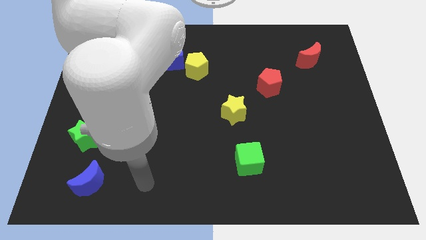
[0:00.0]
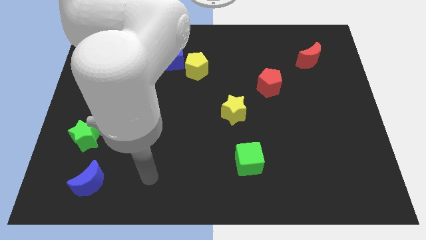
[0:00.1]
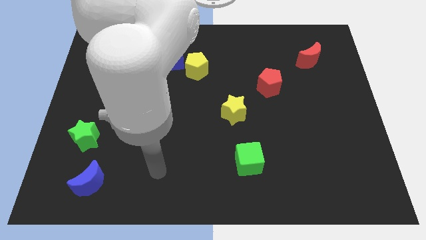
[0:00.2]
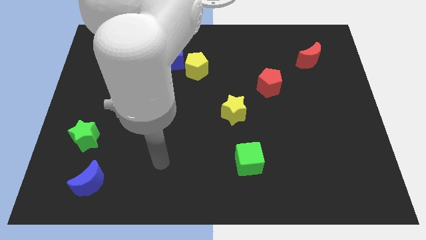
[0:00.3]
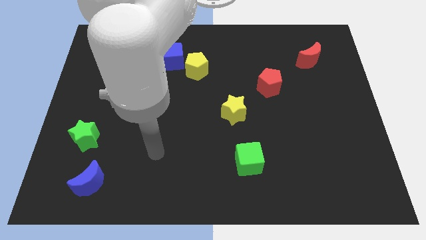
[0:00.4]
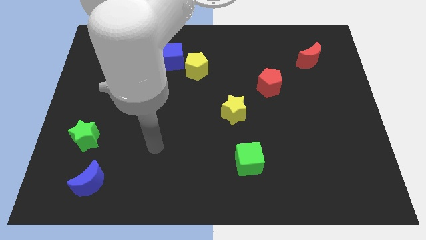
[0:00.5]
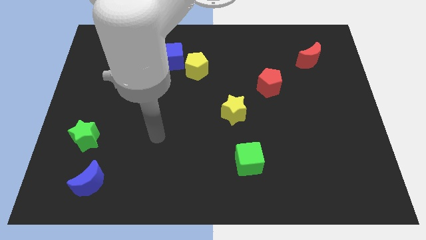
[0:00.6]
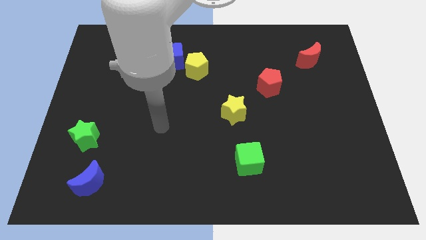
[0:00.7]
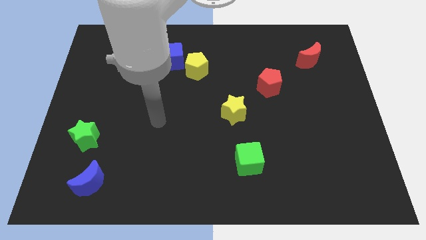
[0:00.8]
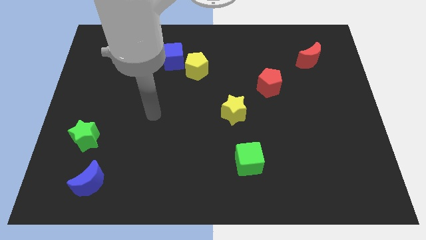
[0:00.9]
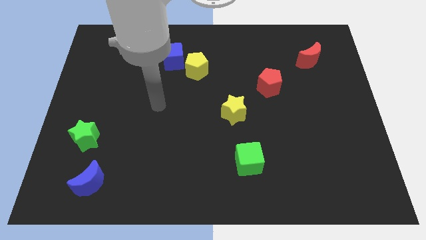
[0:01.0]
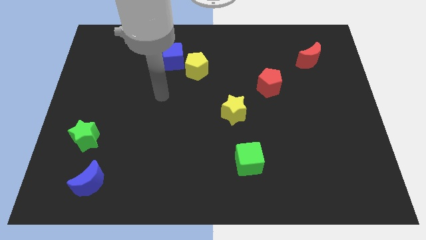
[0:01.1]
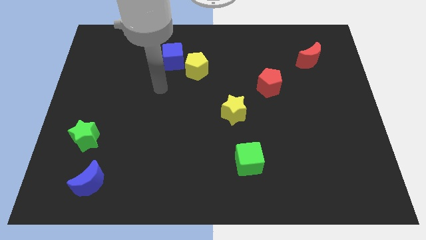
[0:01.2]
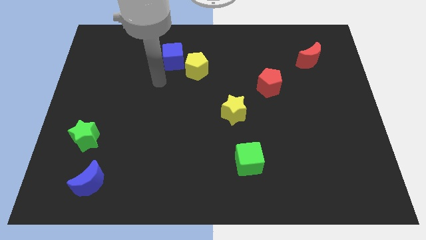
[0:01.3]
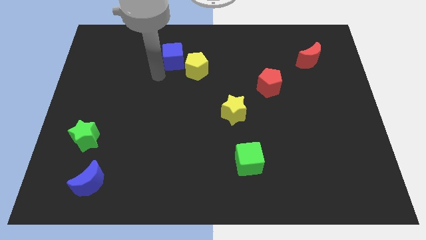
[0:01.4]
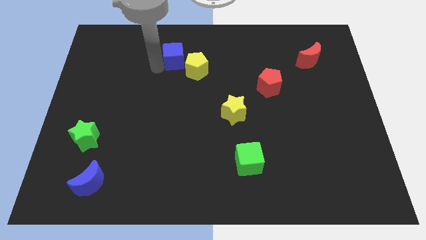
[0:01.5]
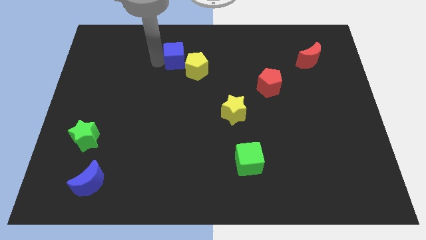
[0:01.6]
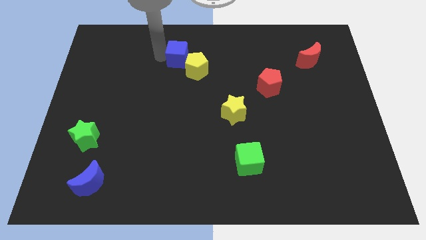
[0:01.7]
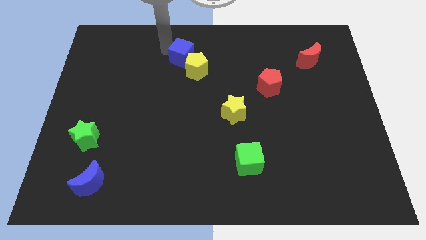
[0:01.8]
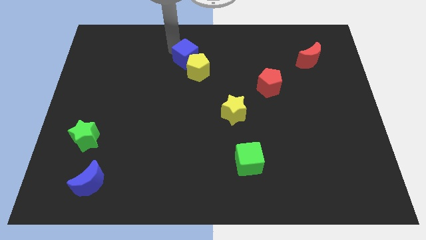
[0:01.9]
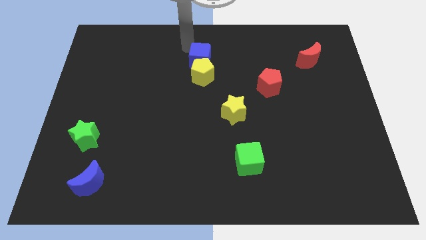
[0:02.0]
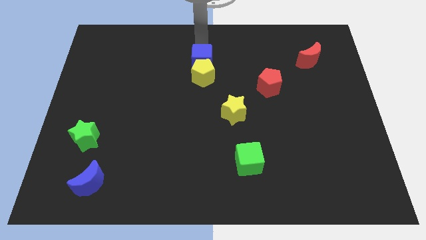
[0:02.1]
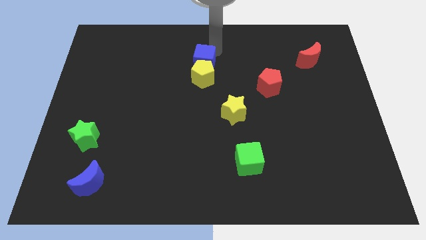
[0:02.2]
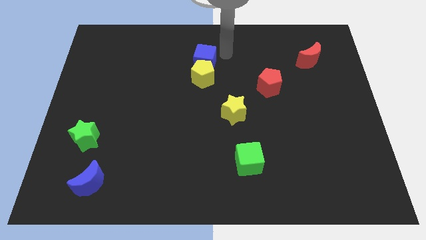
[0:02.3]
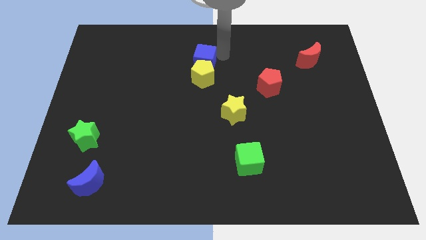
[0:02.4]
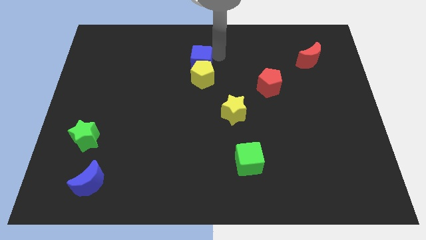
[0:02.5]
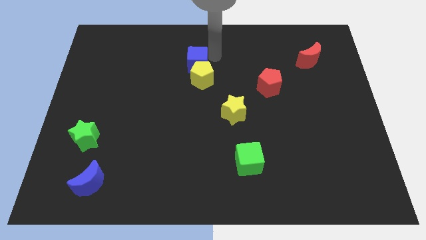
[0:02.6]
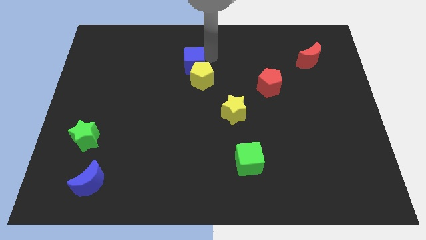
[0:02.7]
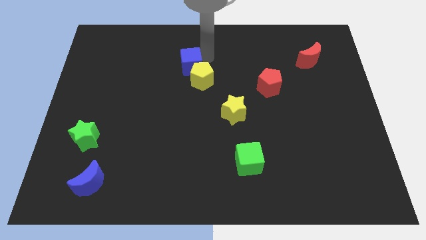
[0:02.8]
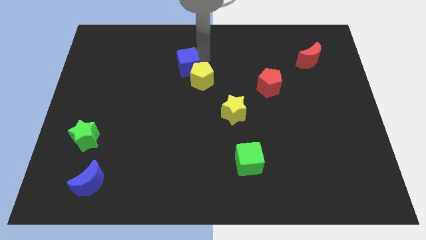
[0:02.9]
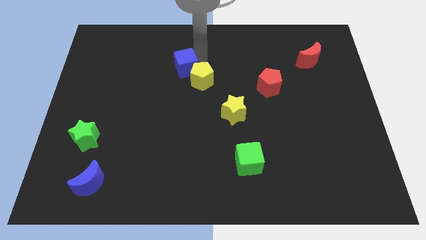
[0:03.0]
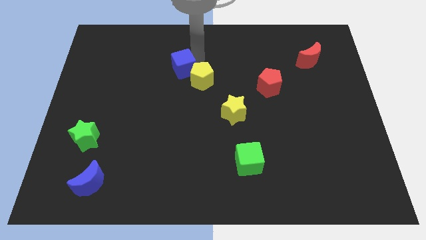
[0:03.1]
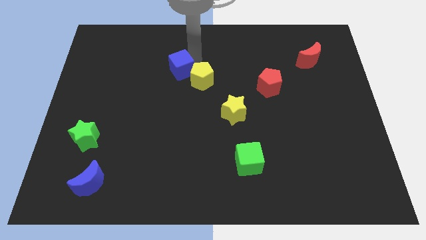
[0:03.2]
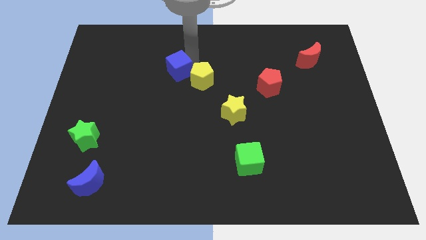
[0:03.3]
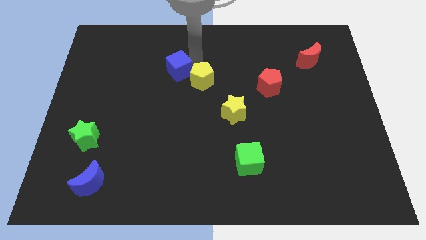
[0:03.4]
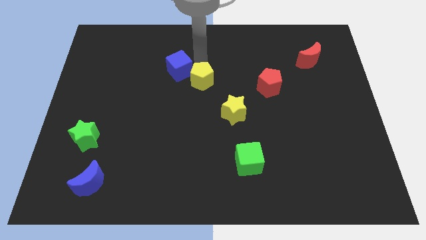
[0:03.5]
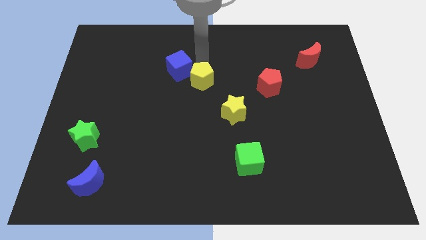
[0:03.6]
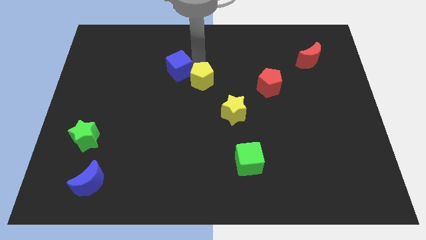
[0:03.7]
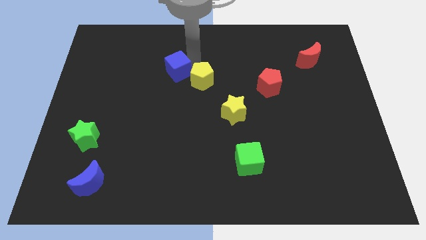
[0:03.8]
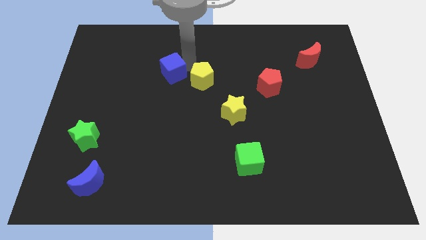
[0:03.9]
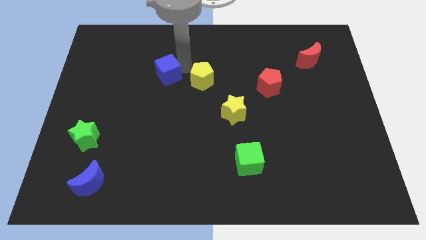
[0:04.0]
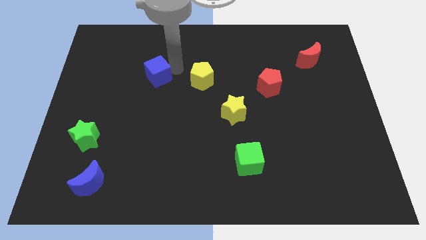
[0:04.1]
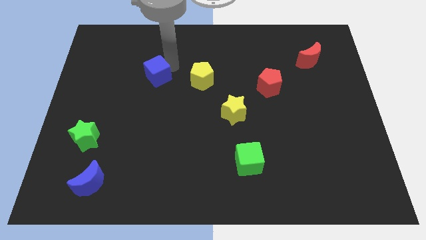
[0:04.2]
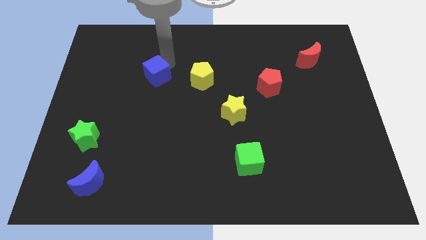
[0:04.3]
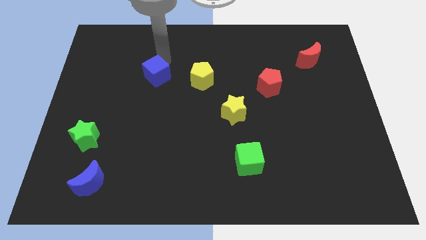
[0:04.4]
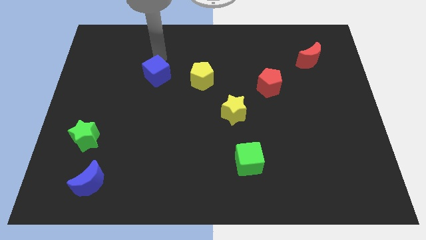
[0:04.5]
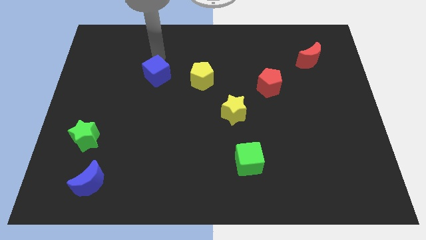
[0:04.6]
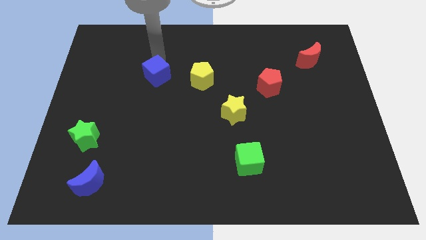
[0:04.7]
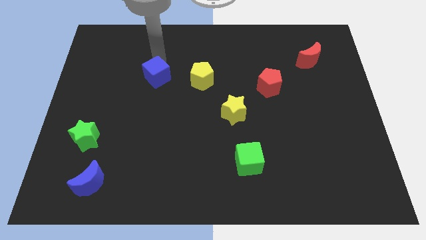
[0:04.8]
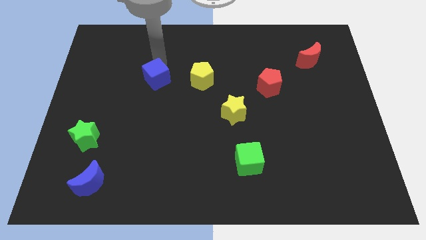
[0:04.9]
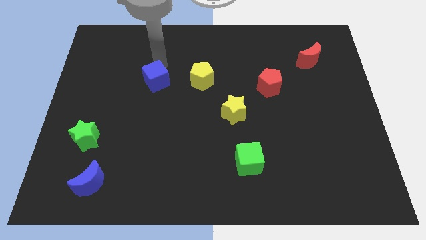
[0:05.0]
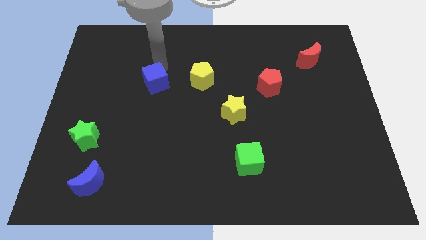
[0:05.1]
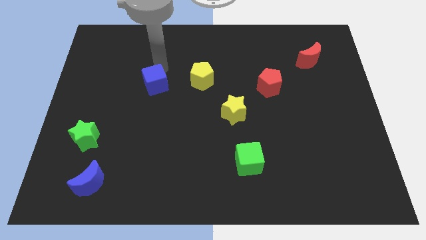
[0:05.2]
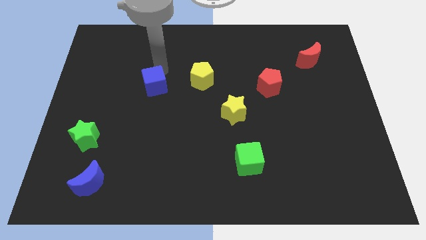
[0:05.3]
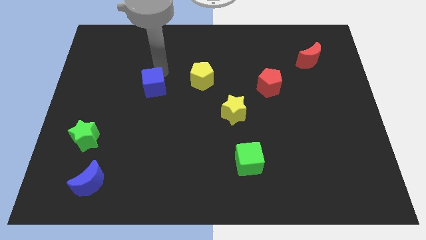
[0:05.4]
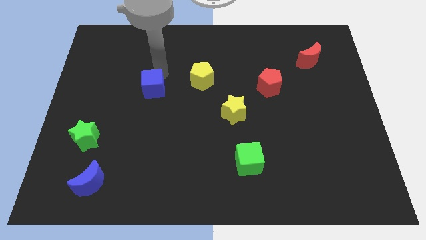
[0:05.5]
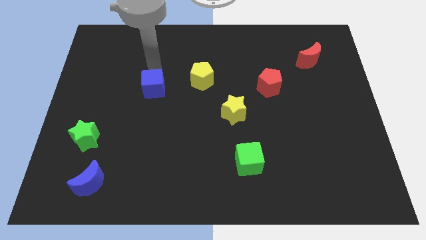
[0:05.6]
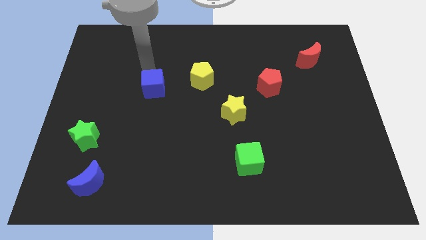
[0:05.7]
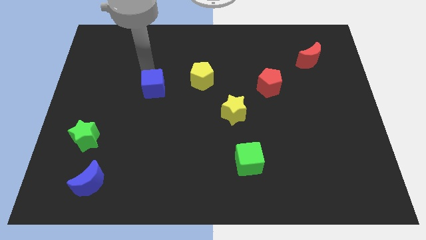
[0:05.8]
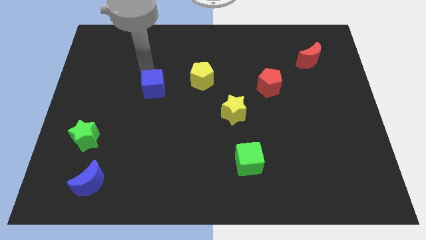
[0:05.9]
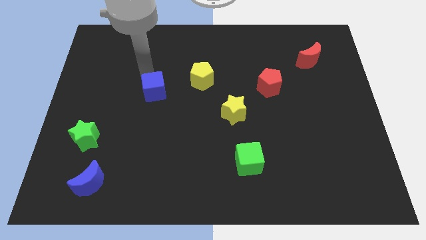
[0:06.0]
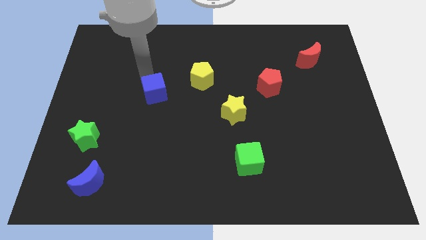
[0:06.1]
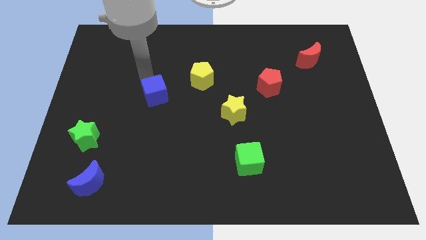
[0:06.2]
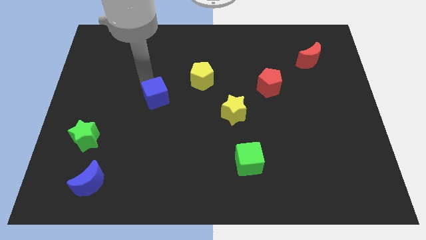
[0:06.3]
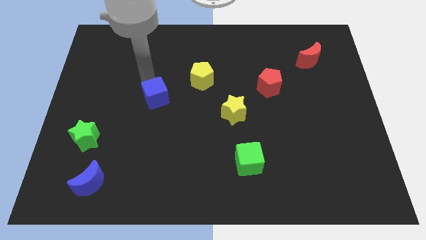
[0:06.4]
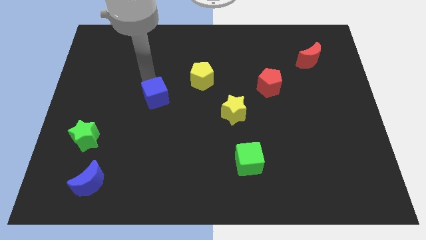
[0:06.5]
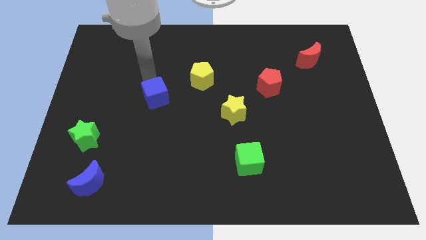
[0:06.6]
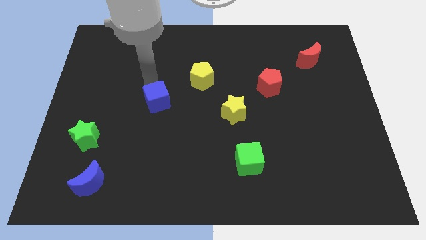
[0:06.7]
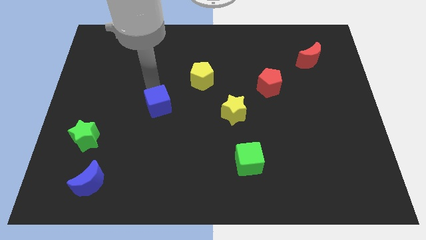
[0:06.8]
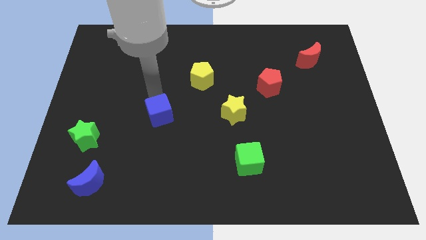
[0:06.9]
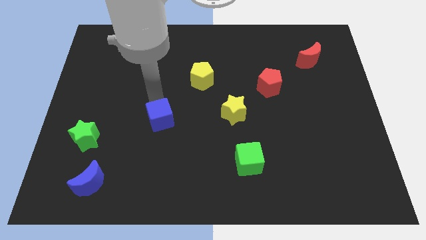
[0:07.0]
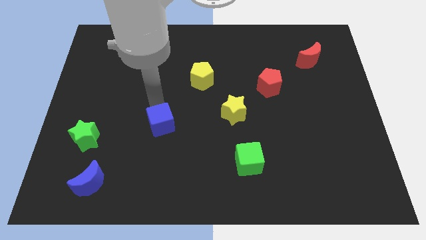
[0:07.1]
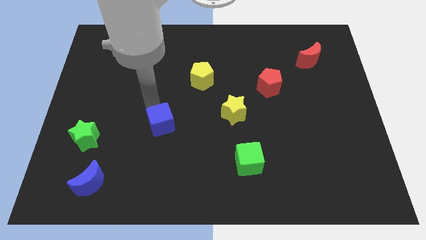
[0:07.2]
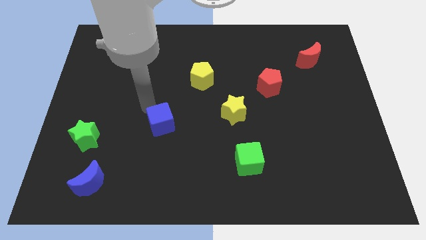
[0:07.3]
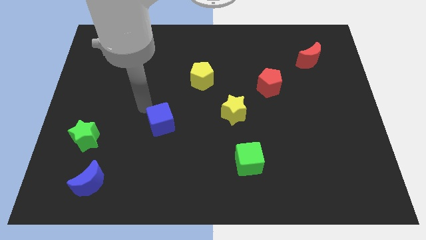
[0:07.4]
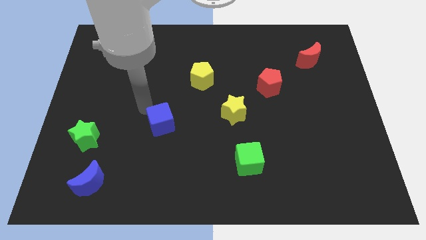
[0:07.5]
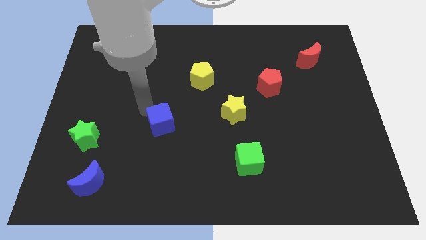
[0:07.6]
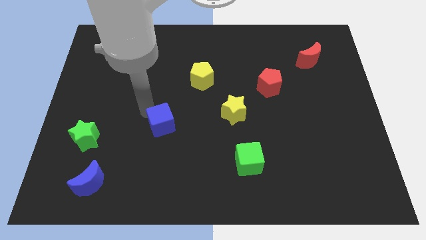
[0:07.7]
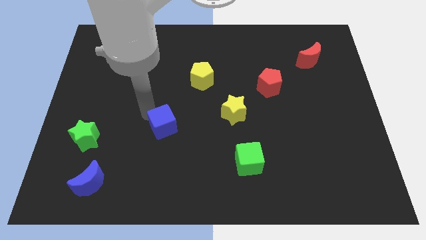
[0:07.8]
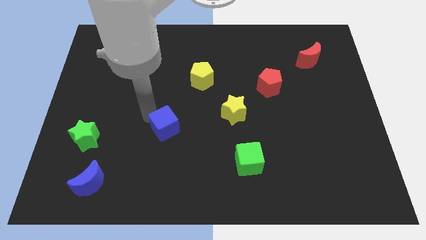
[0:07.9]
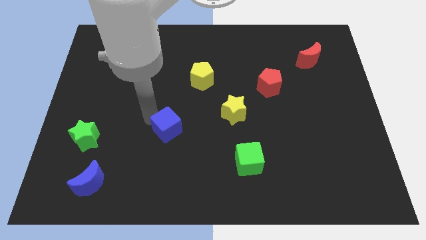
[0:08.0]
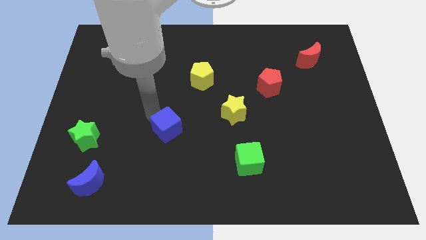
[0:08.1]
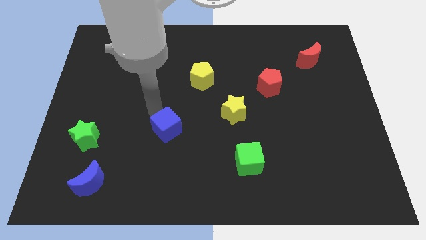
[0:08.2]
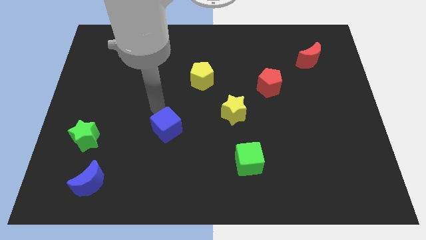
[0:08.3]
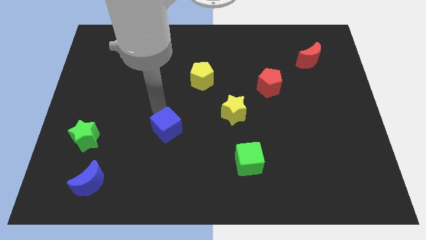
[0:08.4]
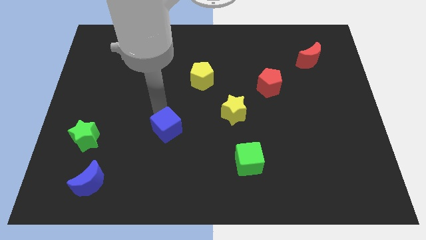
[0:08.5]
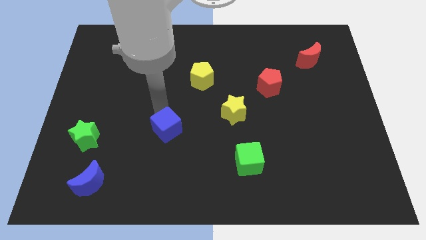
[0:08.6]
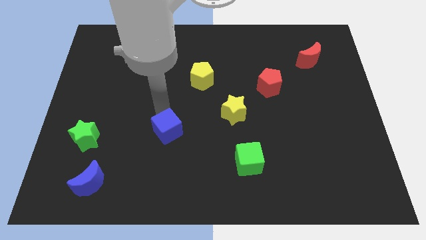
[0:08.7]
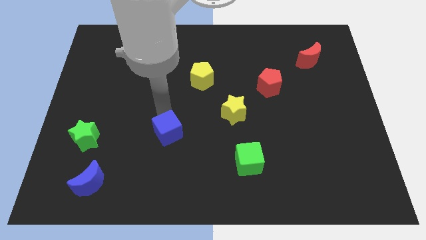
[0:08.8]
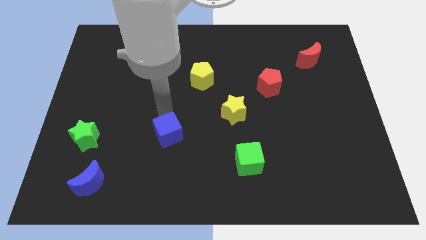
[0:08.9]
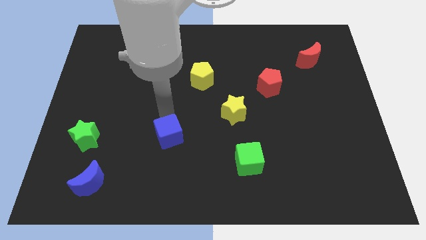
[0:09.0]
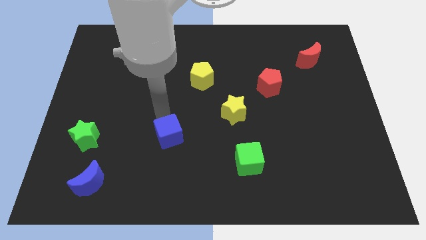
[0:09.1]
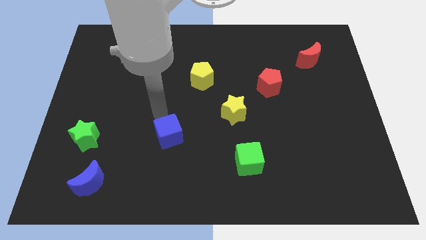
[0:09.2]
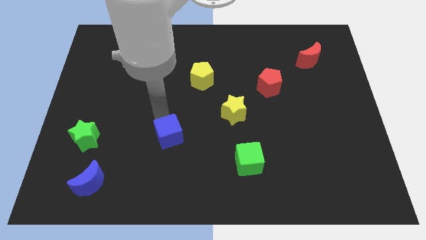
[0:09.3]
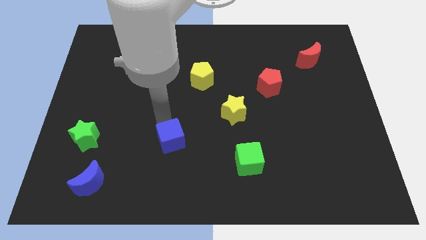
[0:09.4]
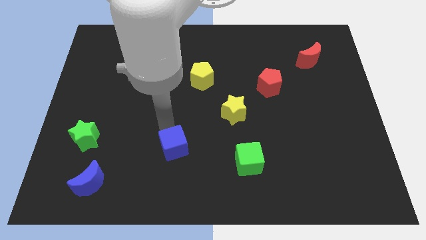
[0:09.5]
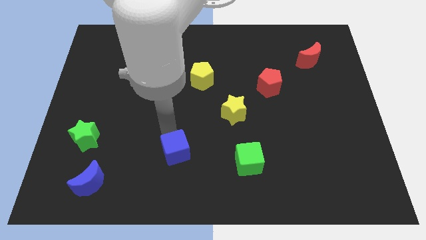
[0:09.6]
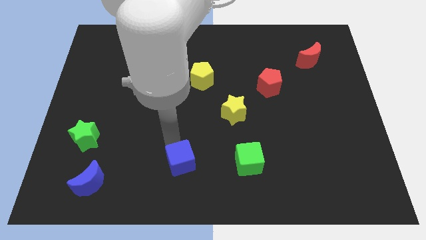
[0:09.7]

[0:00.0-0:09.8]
put the blue cube to the bottom
